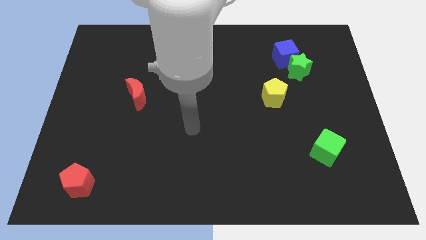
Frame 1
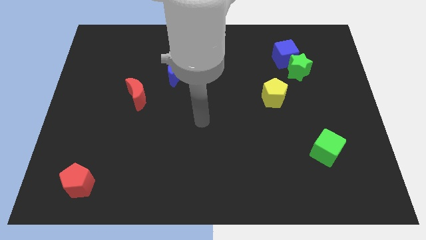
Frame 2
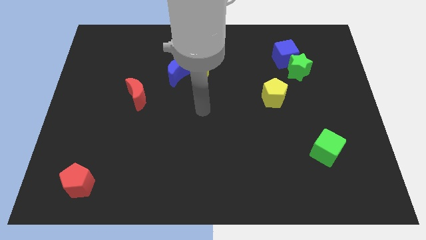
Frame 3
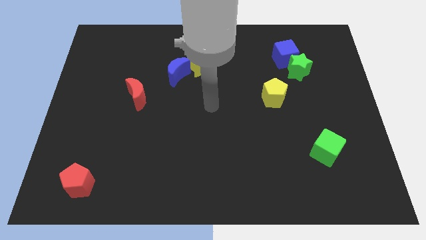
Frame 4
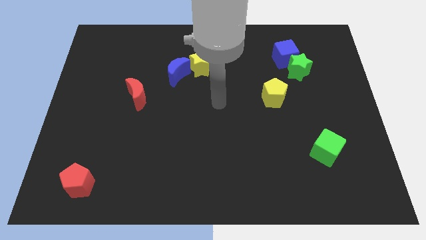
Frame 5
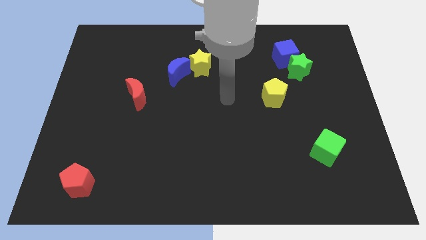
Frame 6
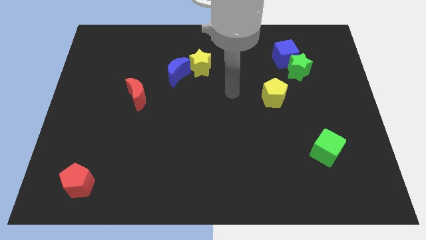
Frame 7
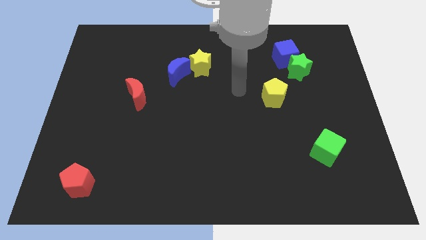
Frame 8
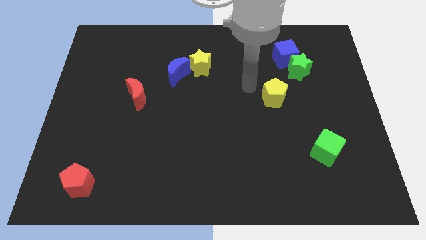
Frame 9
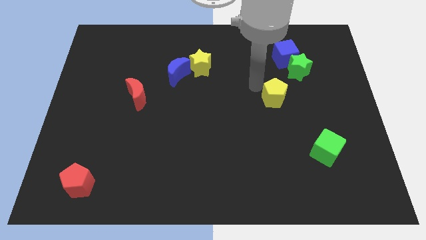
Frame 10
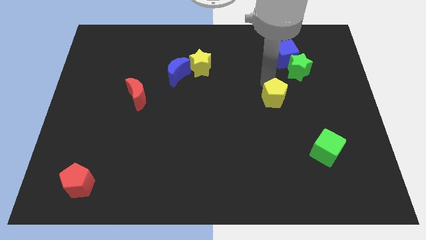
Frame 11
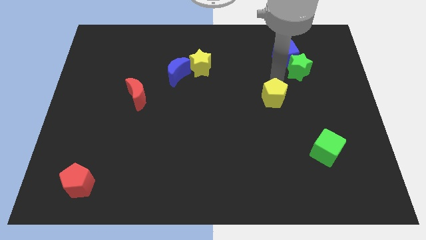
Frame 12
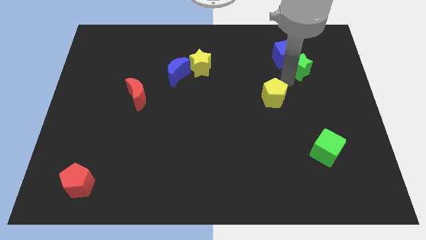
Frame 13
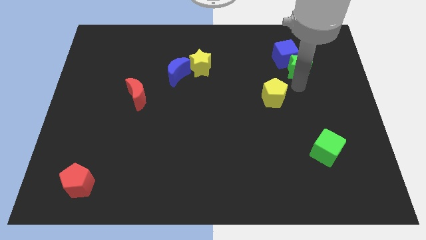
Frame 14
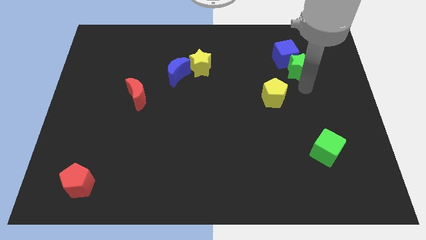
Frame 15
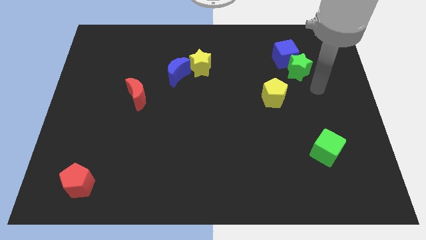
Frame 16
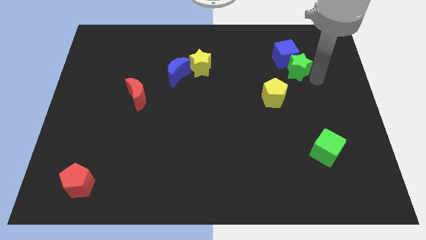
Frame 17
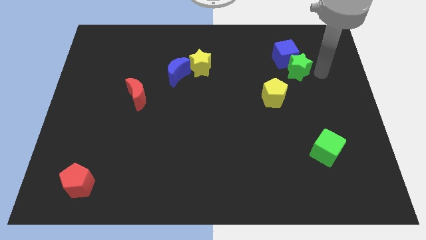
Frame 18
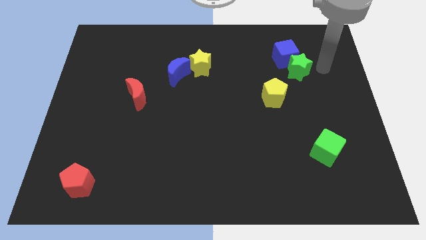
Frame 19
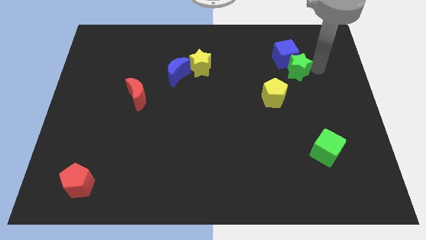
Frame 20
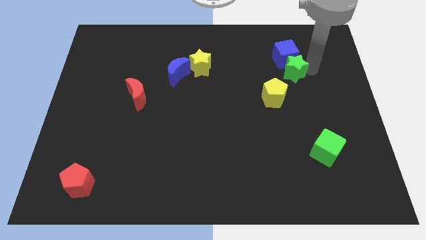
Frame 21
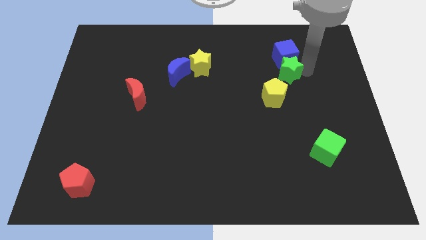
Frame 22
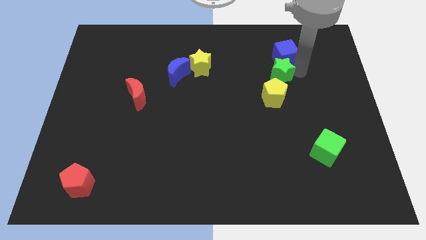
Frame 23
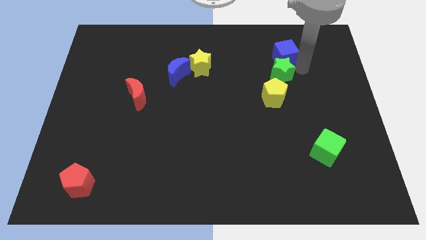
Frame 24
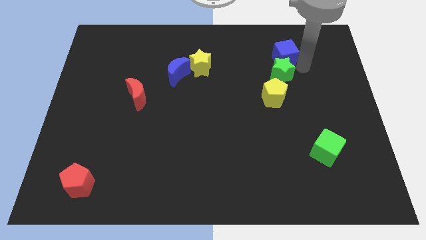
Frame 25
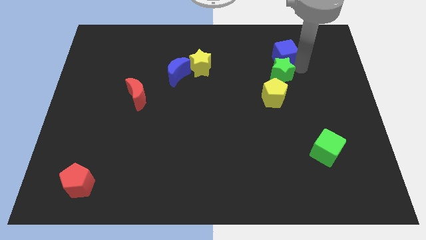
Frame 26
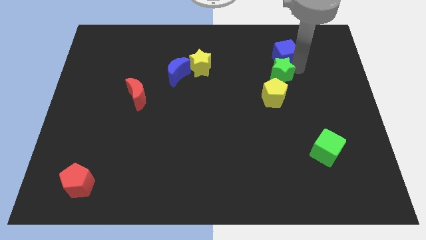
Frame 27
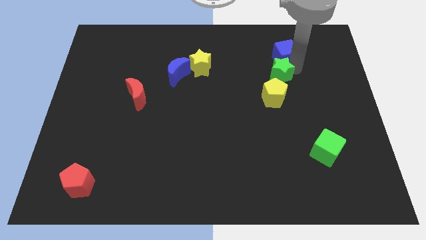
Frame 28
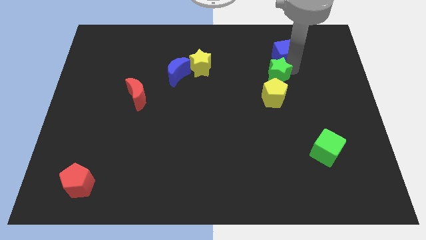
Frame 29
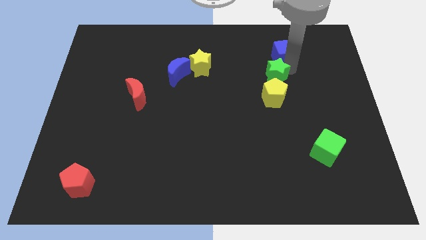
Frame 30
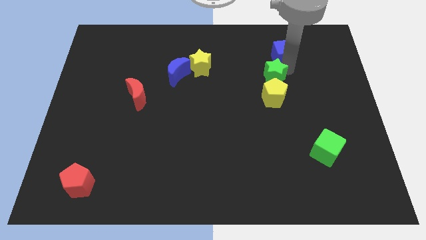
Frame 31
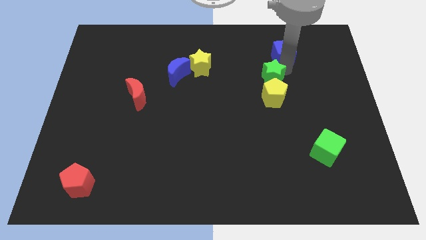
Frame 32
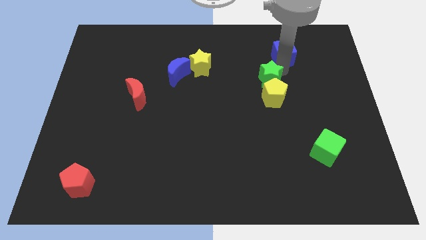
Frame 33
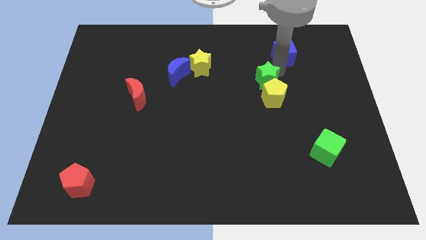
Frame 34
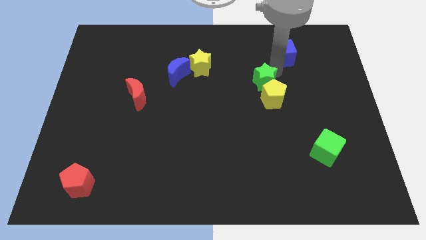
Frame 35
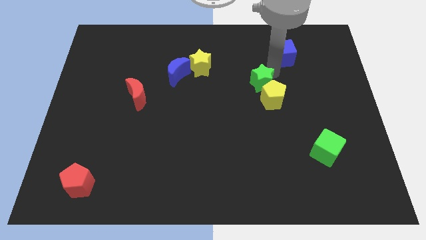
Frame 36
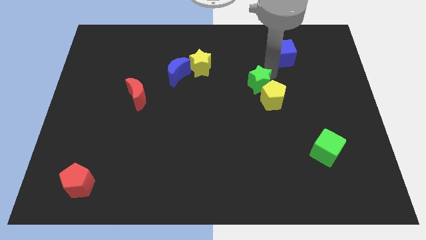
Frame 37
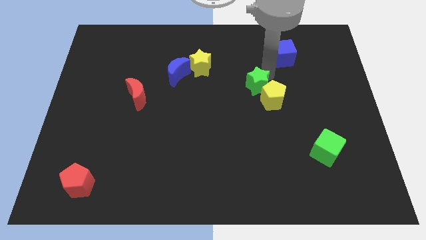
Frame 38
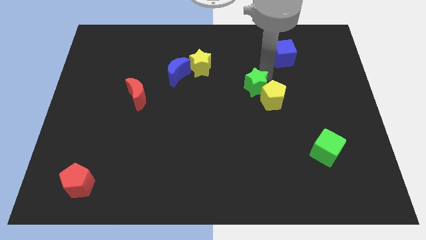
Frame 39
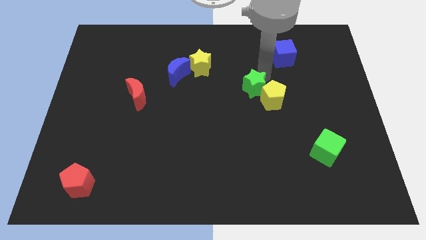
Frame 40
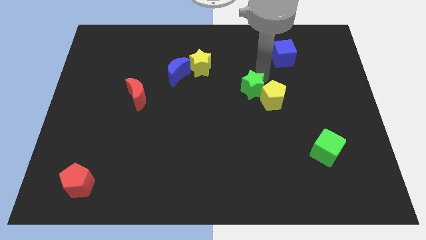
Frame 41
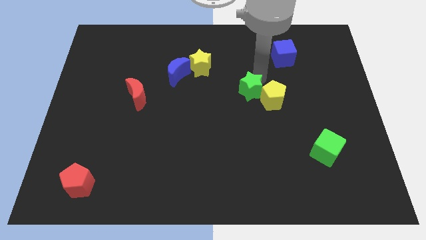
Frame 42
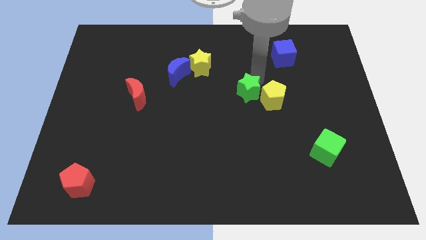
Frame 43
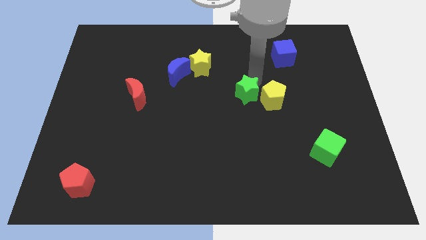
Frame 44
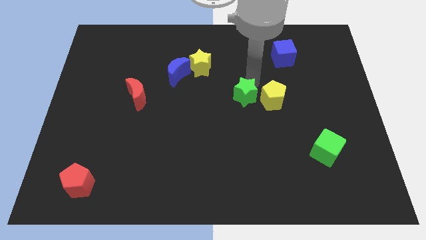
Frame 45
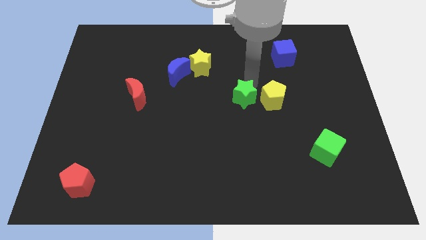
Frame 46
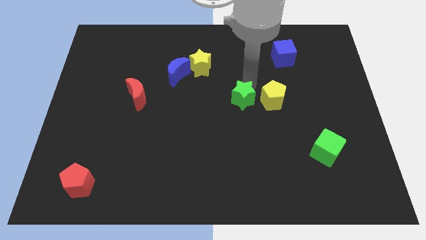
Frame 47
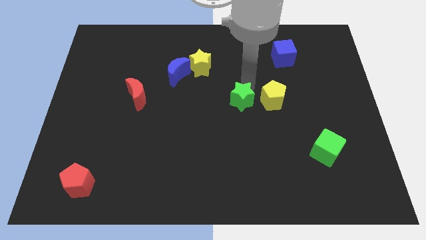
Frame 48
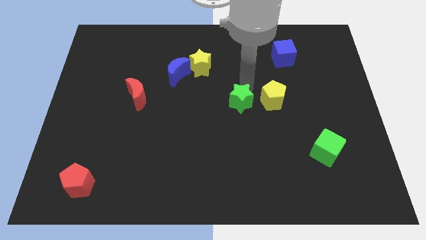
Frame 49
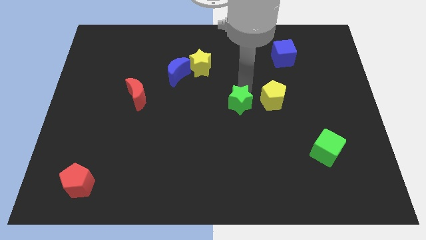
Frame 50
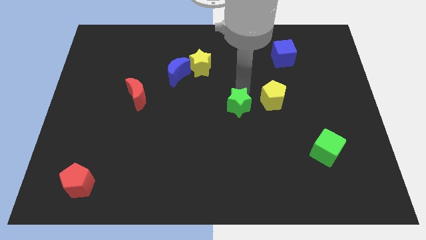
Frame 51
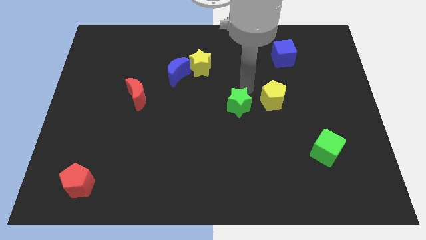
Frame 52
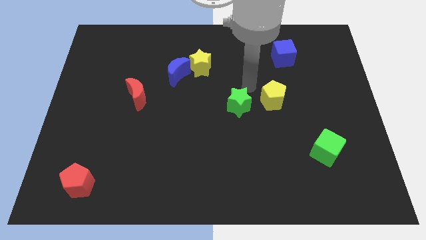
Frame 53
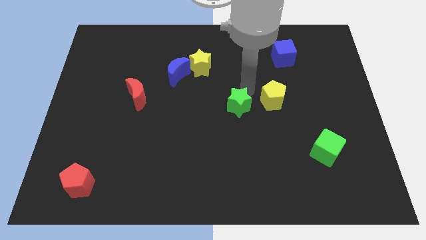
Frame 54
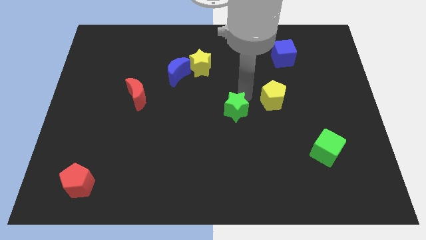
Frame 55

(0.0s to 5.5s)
slide the green star diagonally downwards and to the left

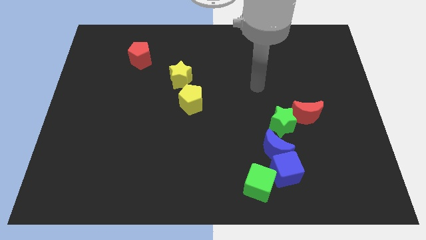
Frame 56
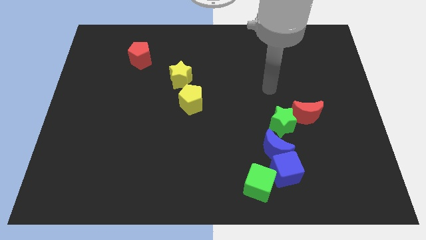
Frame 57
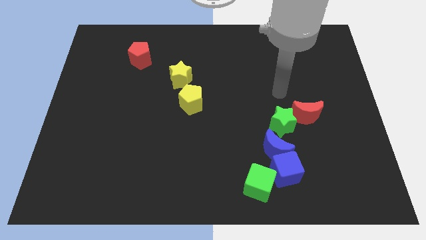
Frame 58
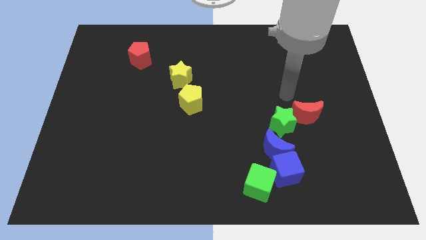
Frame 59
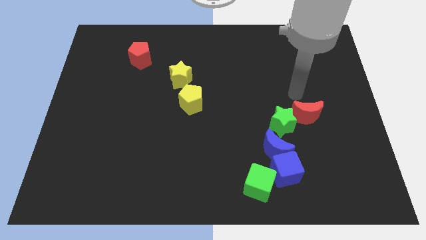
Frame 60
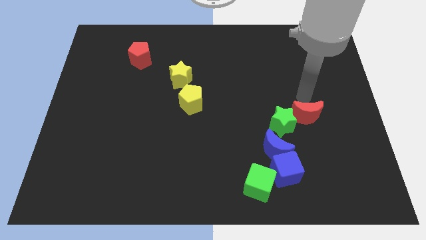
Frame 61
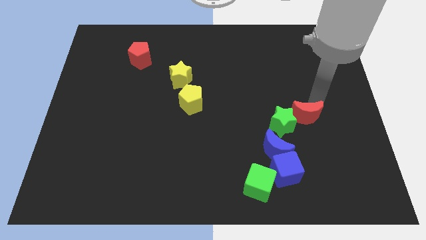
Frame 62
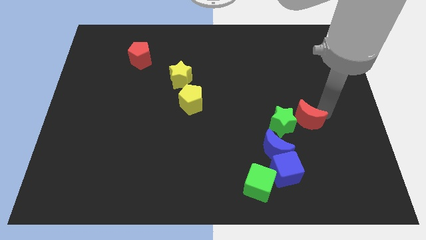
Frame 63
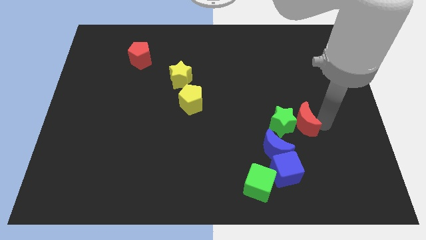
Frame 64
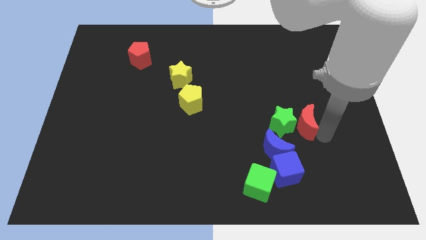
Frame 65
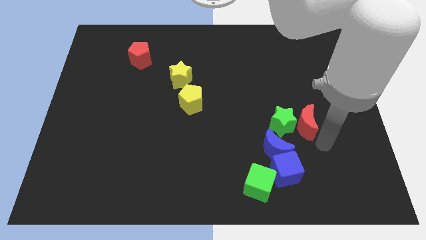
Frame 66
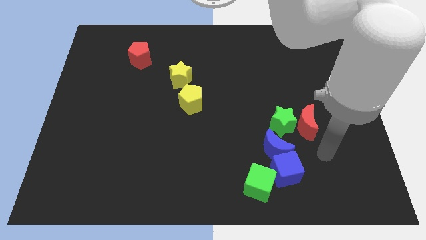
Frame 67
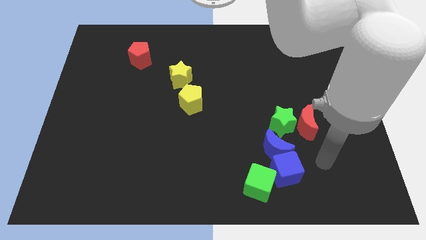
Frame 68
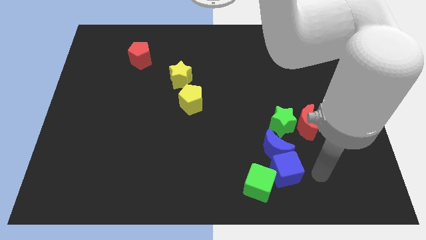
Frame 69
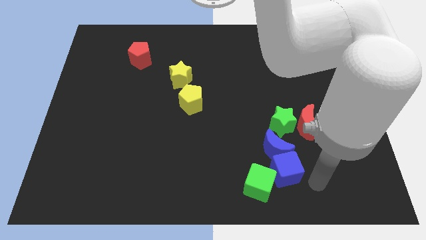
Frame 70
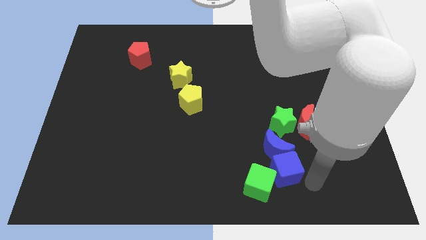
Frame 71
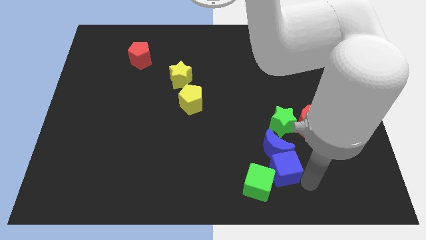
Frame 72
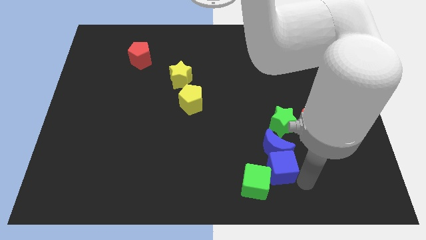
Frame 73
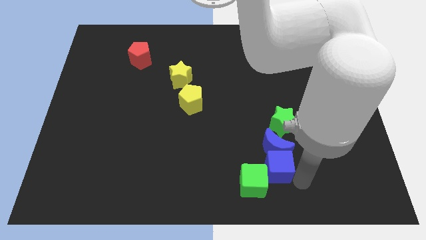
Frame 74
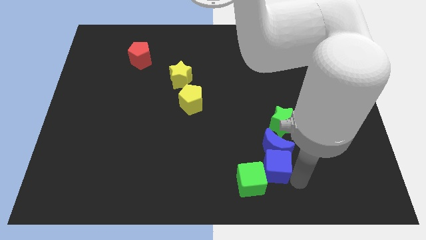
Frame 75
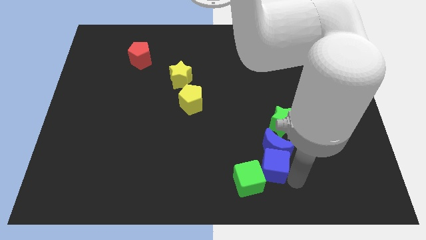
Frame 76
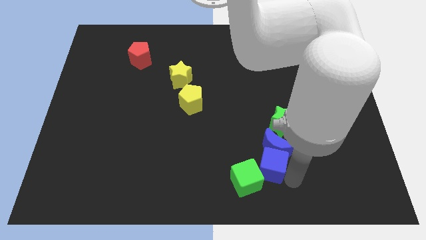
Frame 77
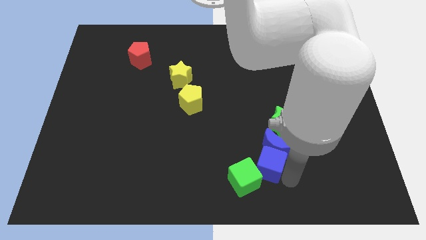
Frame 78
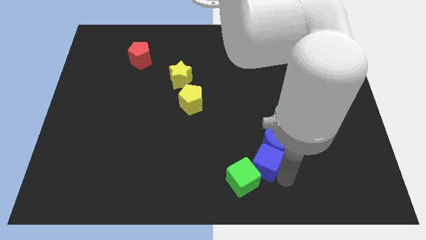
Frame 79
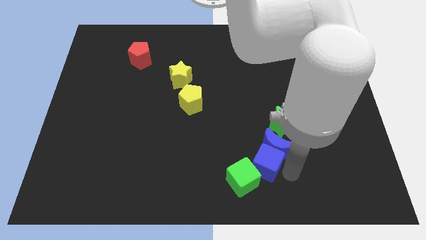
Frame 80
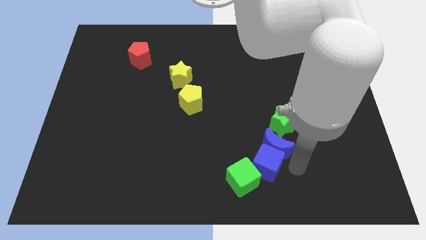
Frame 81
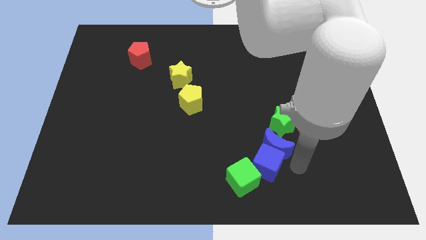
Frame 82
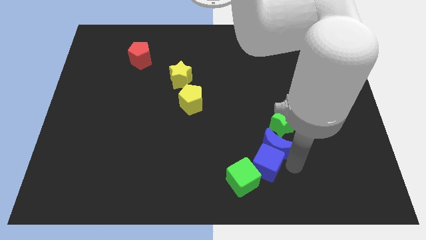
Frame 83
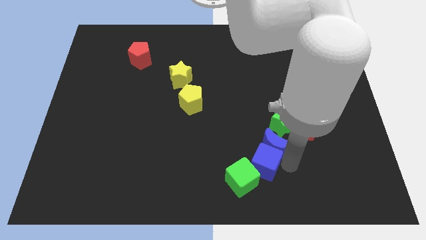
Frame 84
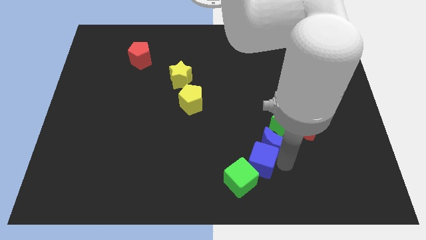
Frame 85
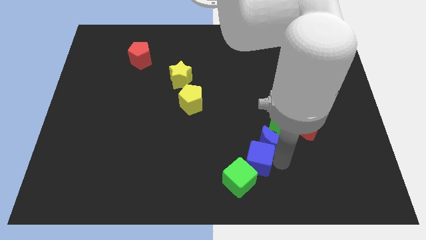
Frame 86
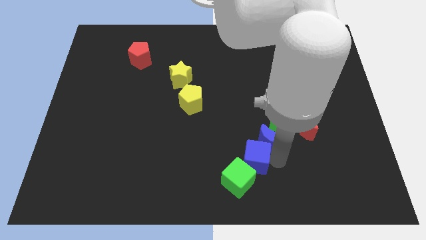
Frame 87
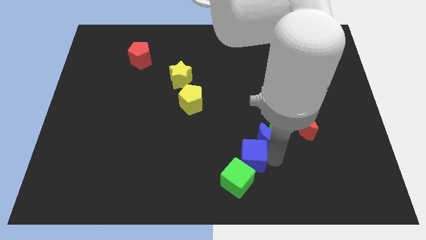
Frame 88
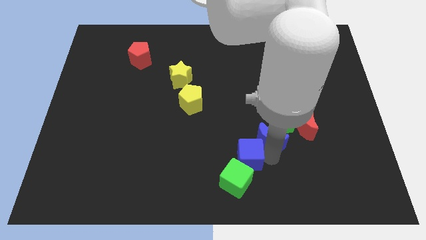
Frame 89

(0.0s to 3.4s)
slightly slide the blue cube to the left
